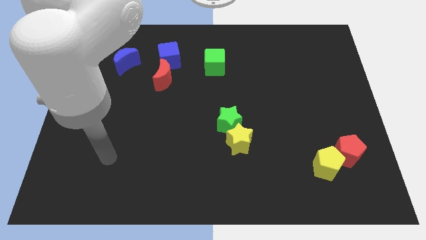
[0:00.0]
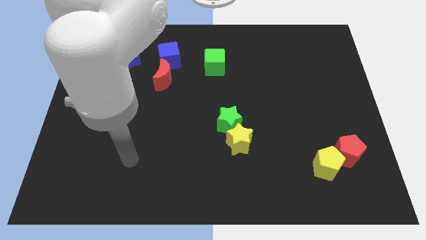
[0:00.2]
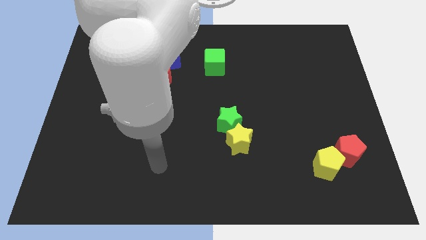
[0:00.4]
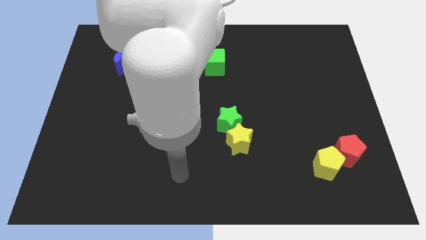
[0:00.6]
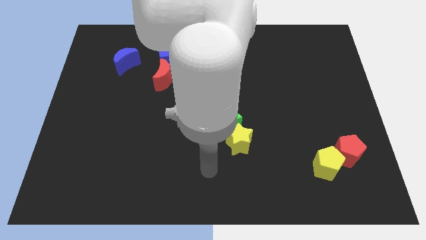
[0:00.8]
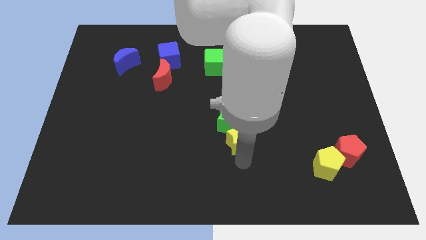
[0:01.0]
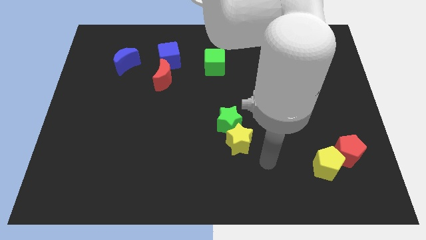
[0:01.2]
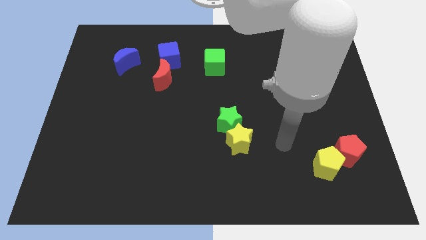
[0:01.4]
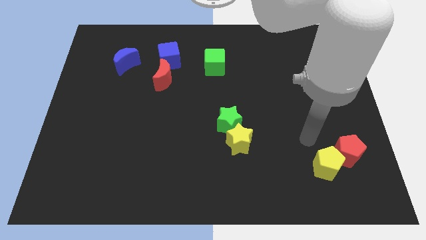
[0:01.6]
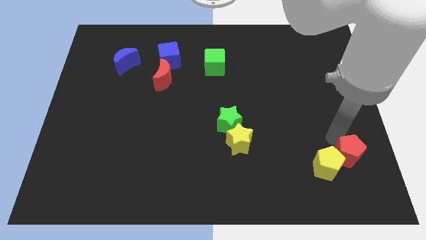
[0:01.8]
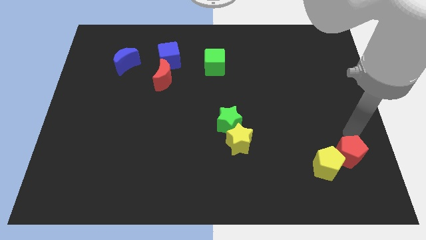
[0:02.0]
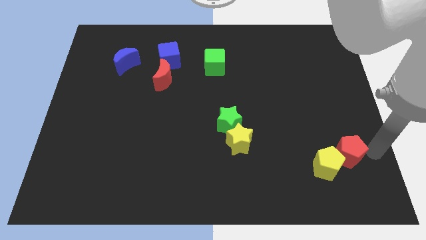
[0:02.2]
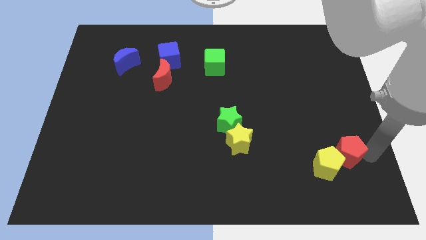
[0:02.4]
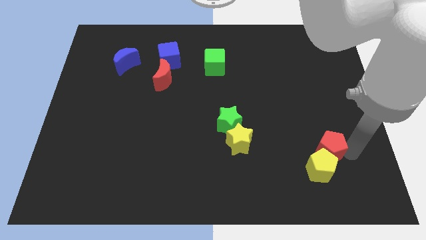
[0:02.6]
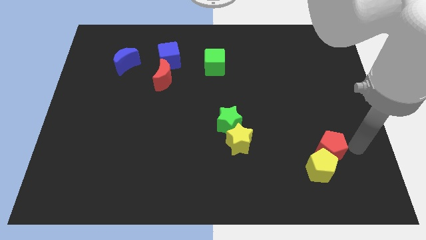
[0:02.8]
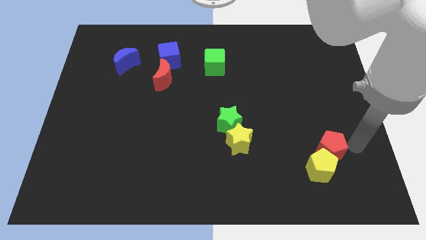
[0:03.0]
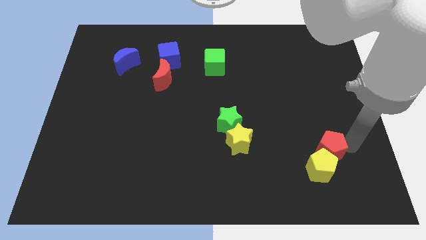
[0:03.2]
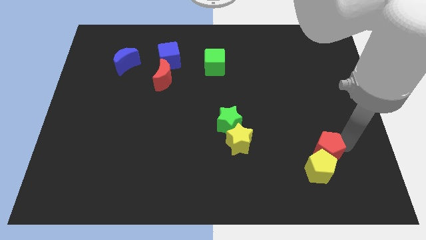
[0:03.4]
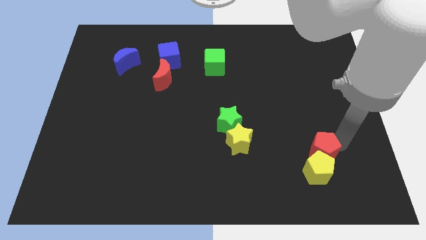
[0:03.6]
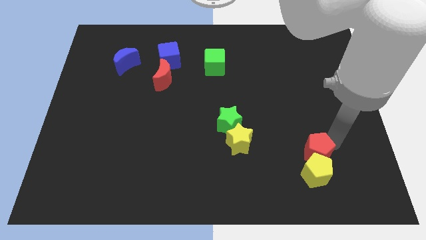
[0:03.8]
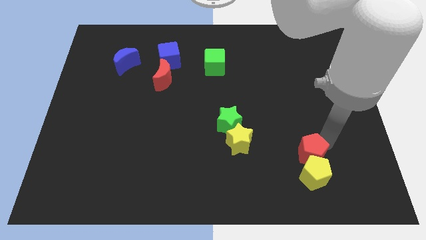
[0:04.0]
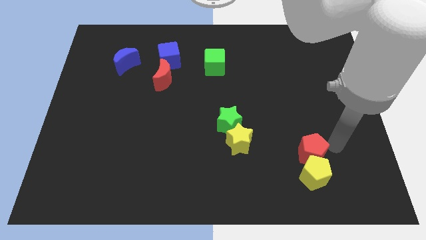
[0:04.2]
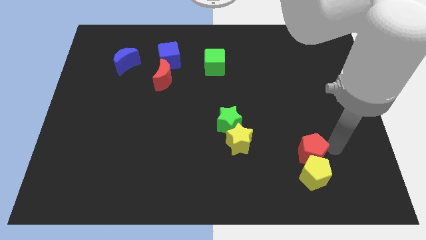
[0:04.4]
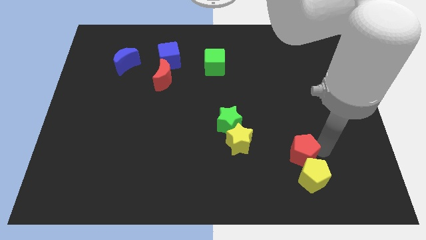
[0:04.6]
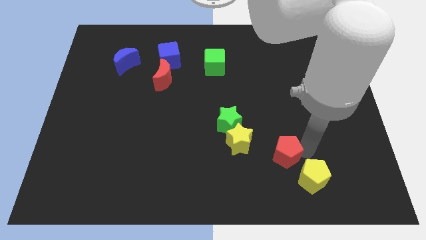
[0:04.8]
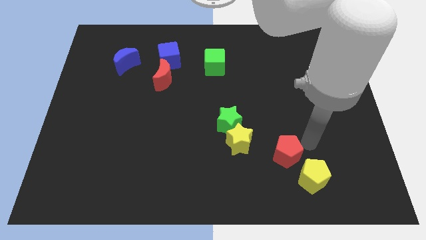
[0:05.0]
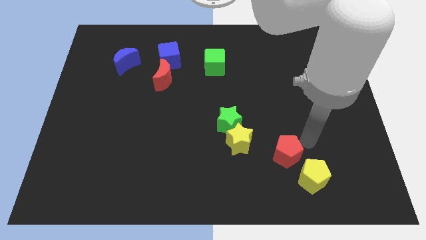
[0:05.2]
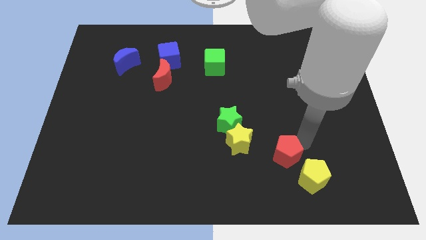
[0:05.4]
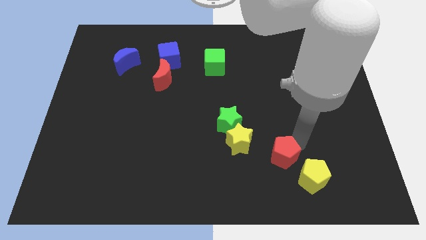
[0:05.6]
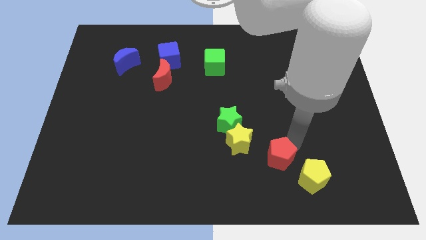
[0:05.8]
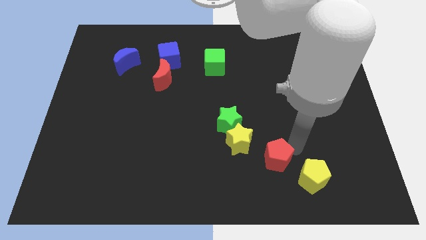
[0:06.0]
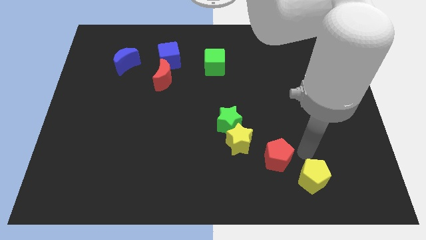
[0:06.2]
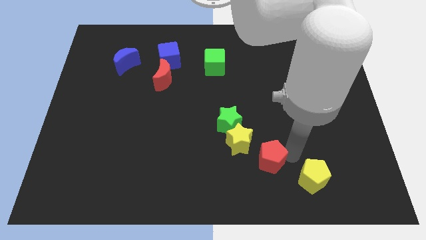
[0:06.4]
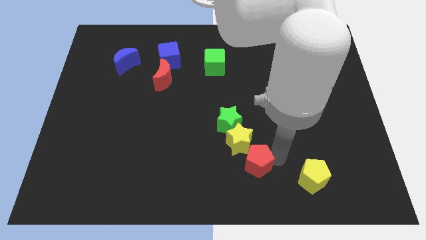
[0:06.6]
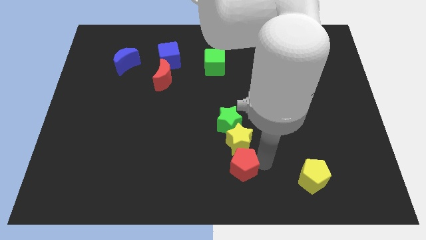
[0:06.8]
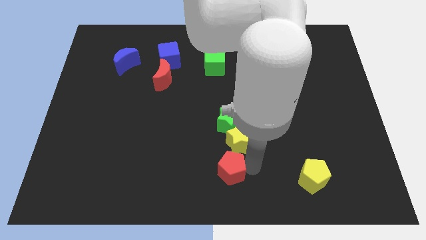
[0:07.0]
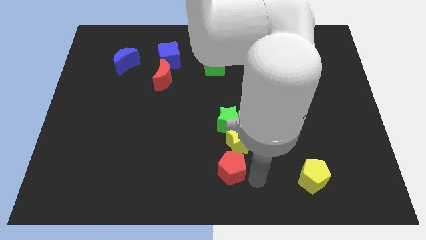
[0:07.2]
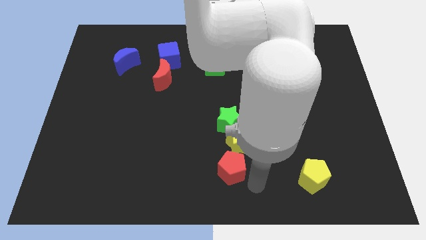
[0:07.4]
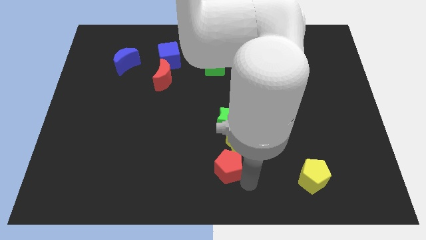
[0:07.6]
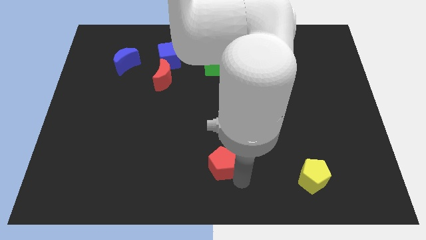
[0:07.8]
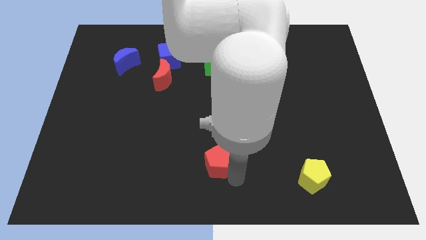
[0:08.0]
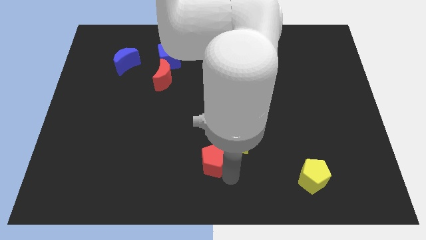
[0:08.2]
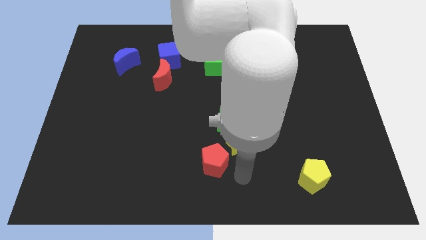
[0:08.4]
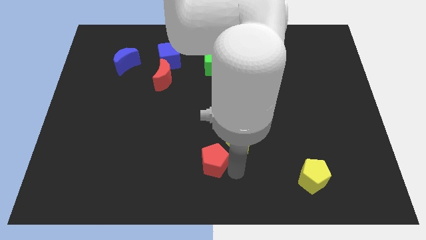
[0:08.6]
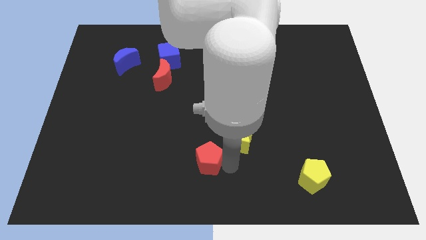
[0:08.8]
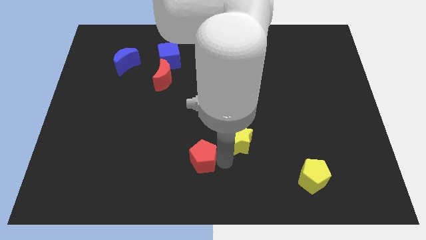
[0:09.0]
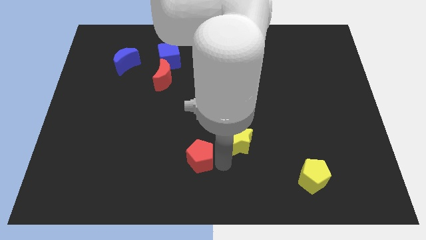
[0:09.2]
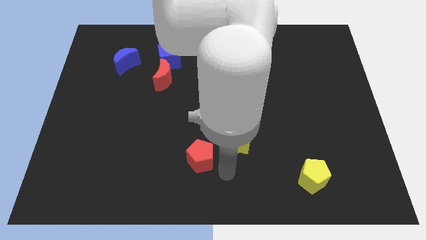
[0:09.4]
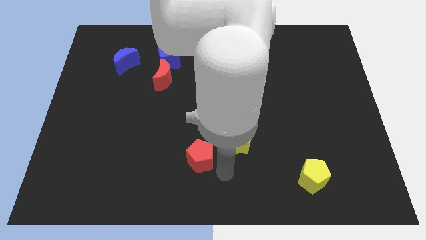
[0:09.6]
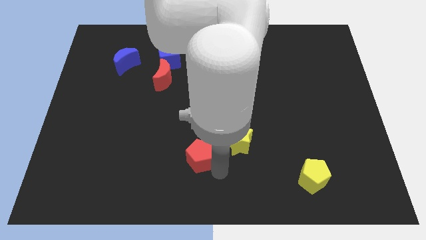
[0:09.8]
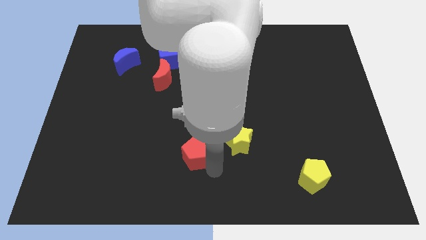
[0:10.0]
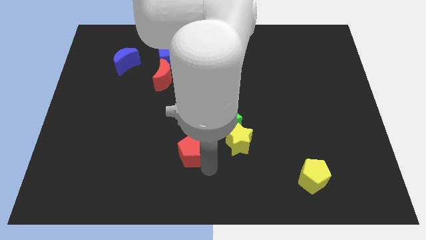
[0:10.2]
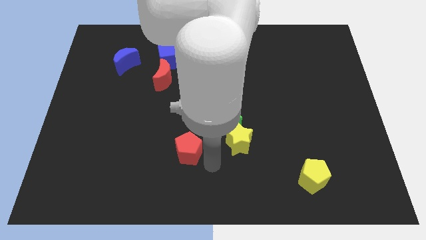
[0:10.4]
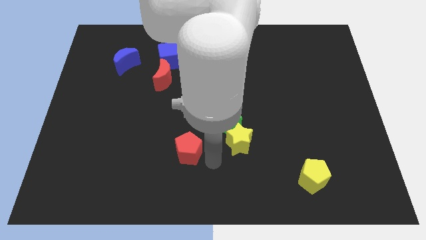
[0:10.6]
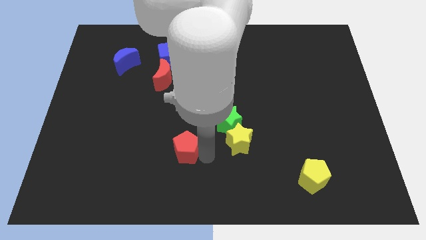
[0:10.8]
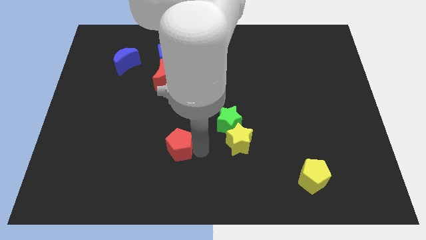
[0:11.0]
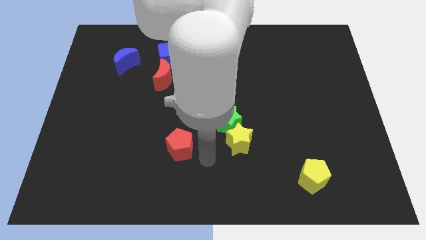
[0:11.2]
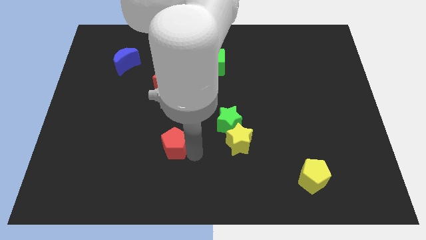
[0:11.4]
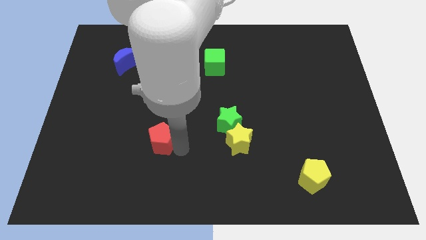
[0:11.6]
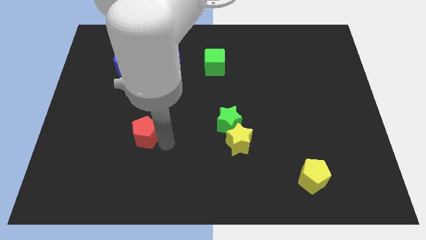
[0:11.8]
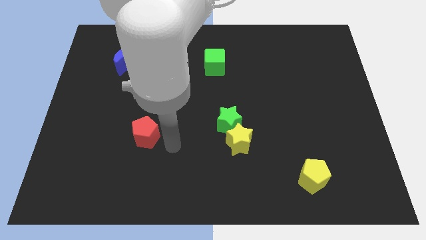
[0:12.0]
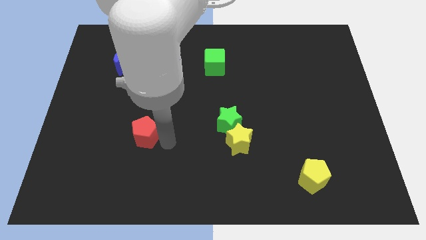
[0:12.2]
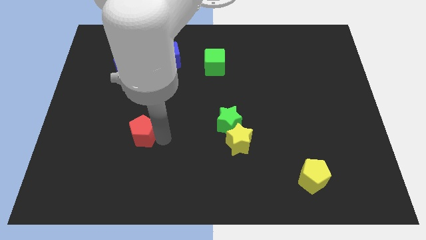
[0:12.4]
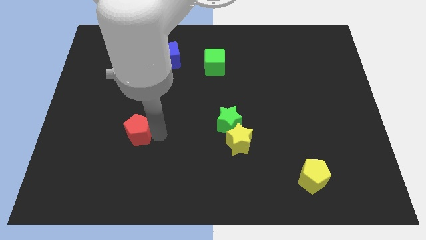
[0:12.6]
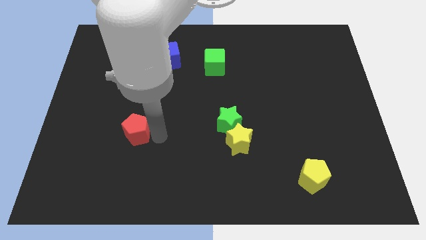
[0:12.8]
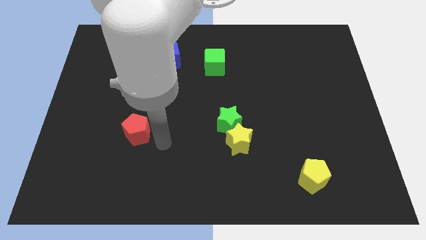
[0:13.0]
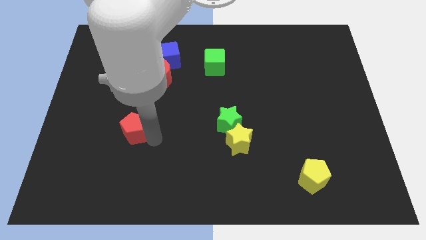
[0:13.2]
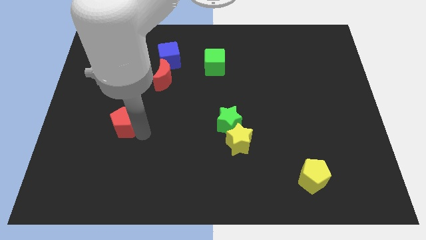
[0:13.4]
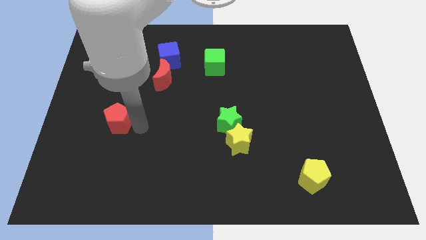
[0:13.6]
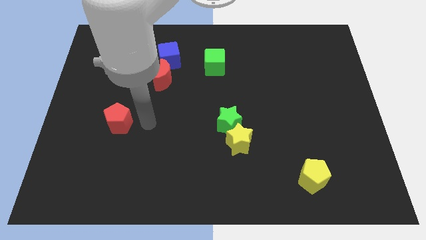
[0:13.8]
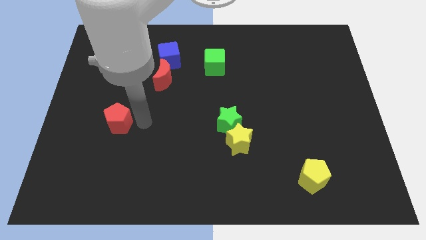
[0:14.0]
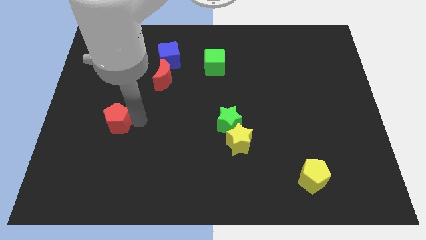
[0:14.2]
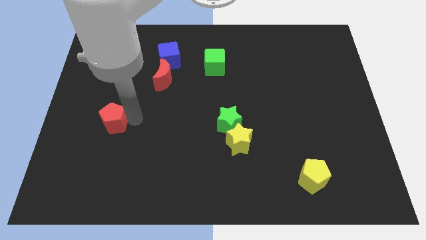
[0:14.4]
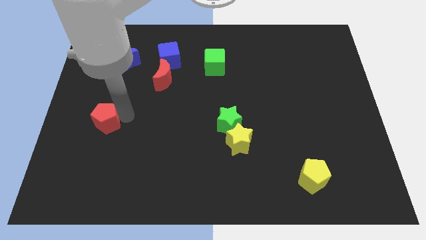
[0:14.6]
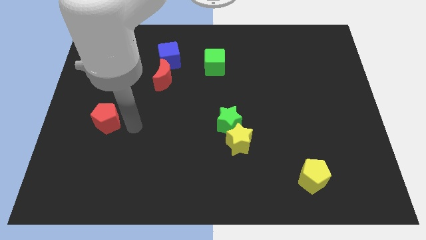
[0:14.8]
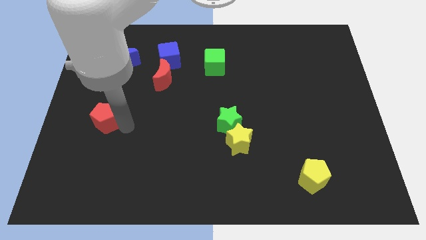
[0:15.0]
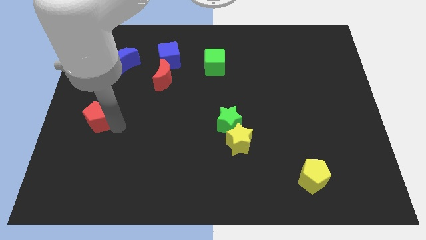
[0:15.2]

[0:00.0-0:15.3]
move the red pentagon to the center left
